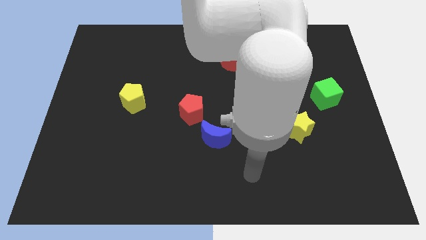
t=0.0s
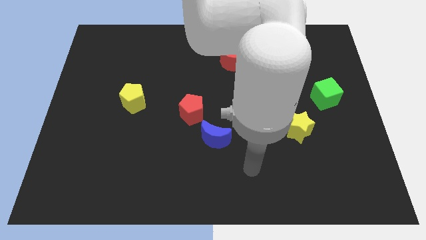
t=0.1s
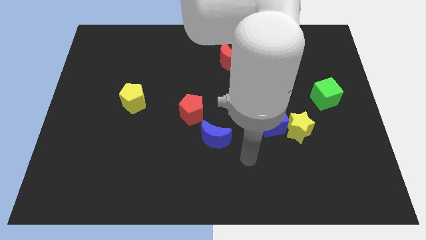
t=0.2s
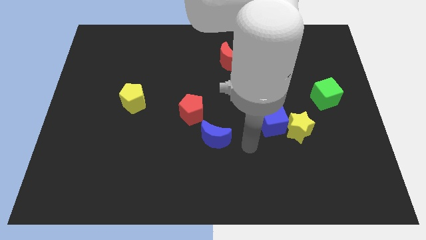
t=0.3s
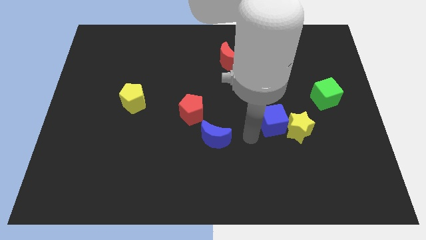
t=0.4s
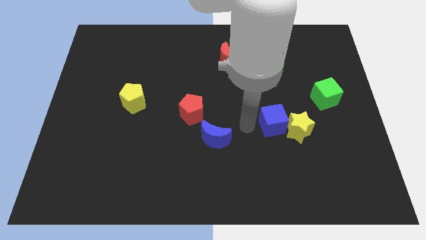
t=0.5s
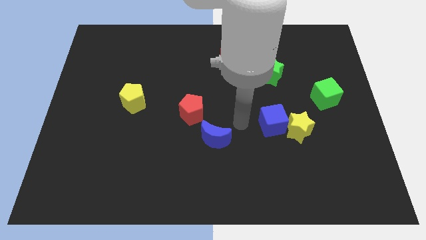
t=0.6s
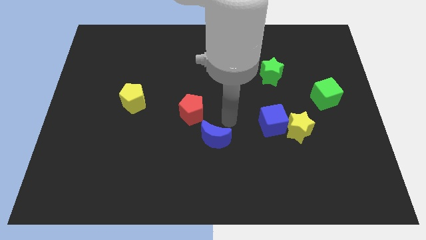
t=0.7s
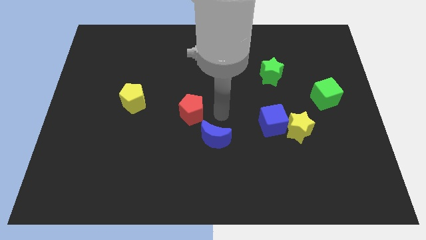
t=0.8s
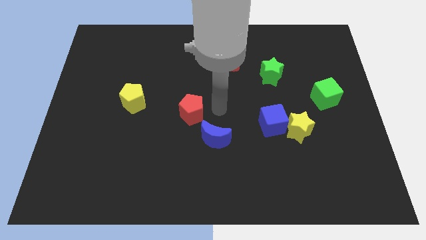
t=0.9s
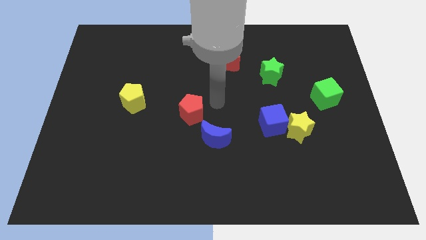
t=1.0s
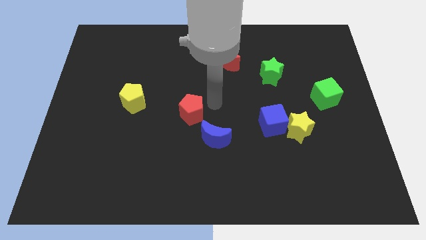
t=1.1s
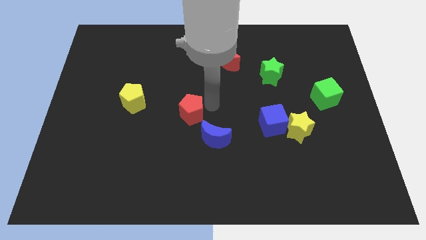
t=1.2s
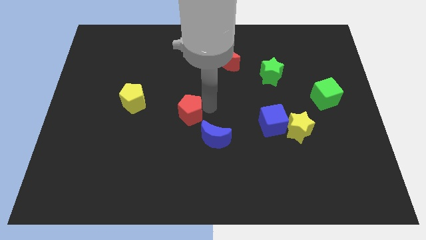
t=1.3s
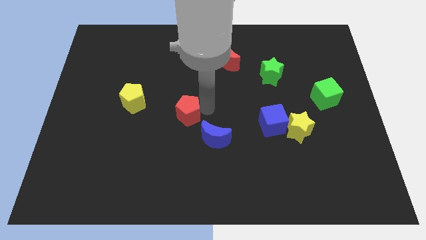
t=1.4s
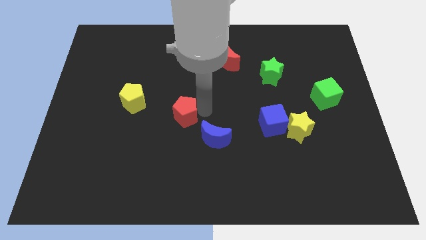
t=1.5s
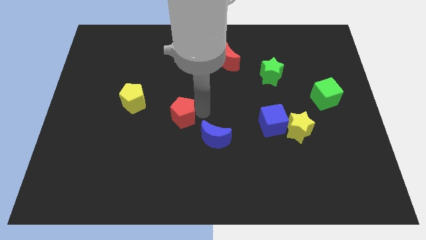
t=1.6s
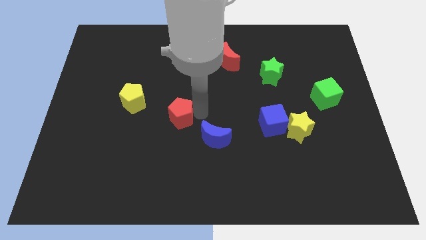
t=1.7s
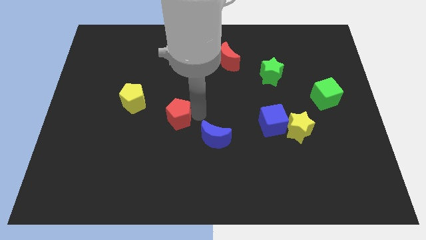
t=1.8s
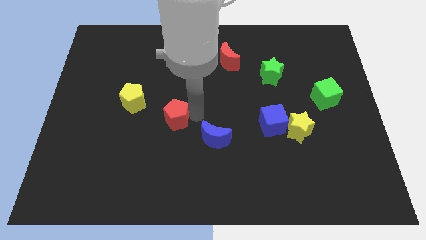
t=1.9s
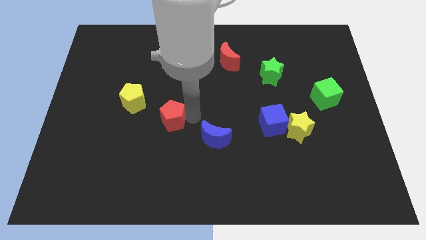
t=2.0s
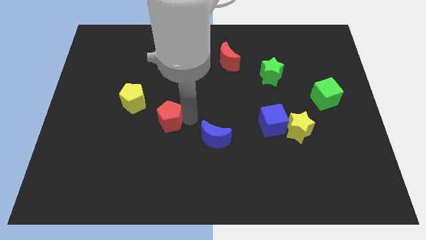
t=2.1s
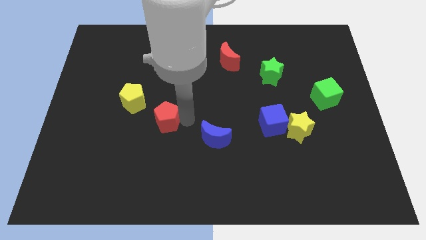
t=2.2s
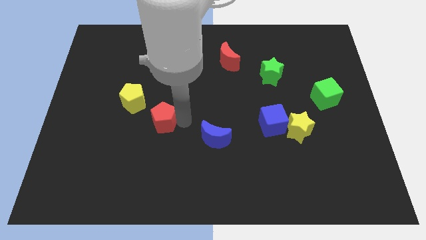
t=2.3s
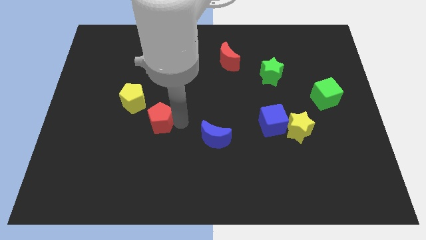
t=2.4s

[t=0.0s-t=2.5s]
move the red pentagon to the left a little bit

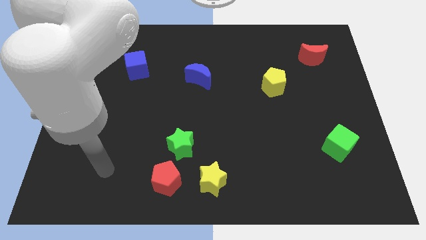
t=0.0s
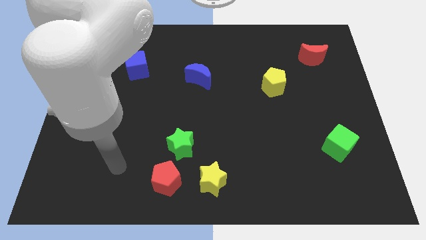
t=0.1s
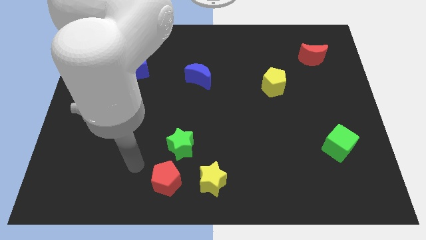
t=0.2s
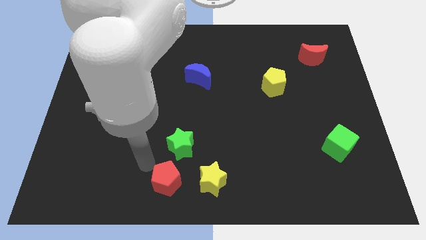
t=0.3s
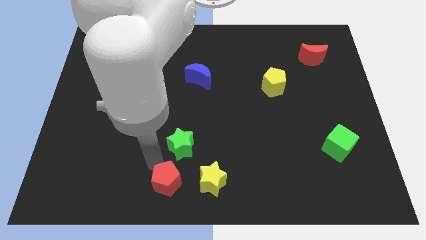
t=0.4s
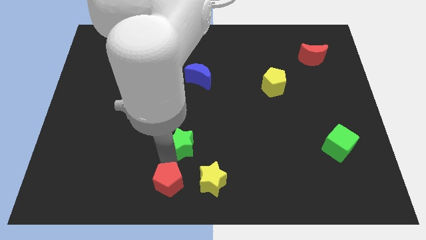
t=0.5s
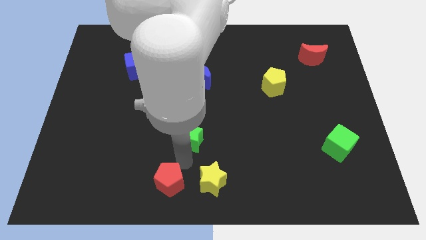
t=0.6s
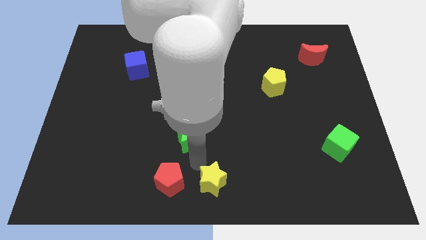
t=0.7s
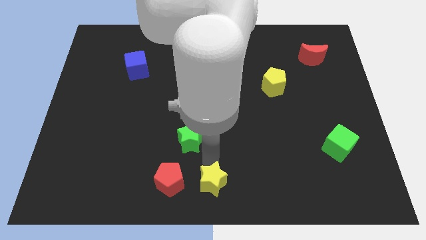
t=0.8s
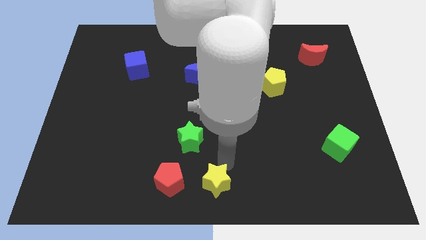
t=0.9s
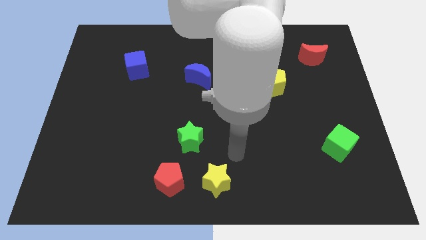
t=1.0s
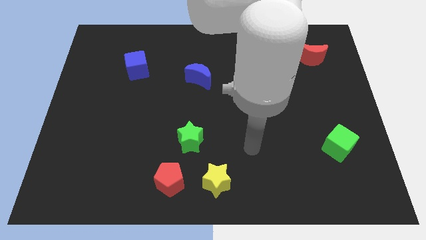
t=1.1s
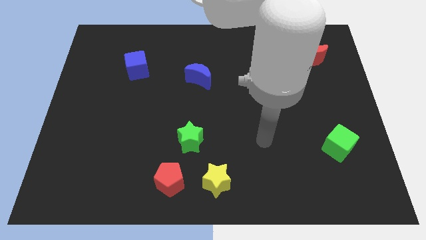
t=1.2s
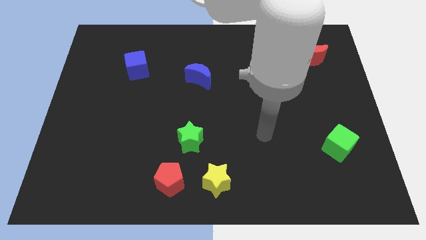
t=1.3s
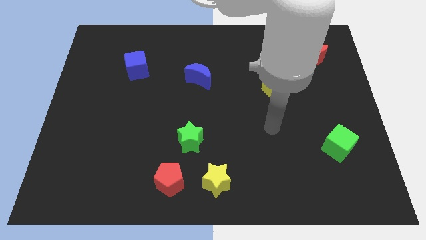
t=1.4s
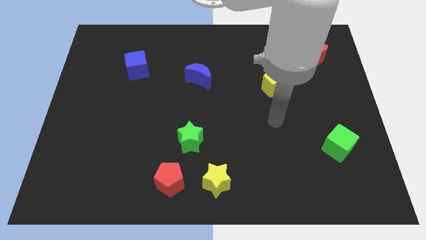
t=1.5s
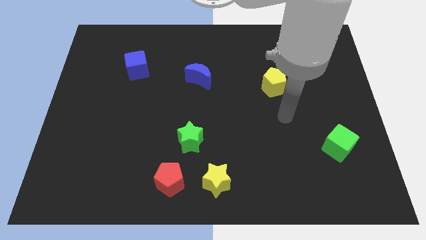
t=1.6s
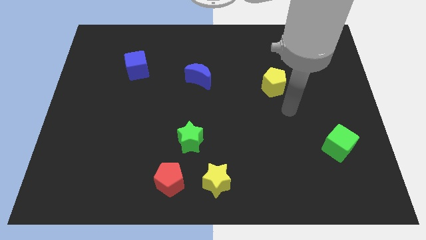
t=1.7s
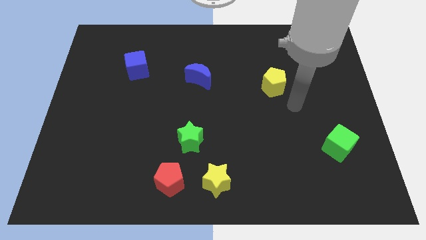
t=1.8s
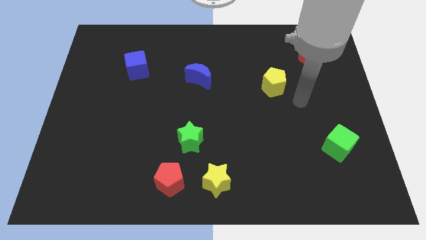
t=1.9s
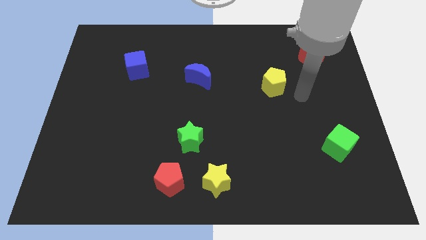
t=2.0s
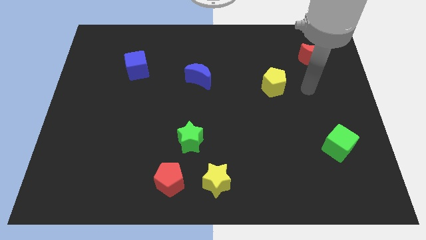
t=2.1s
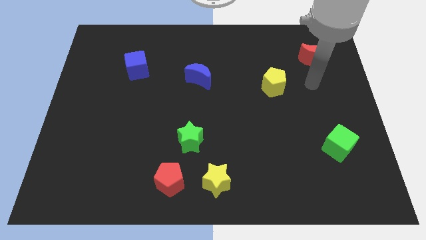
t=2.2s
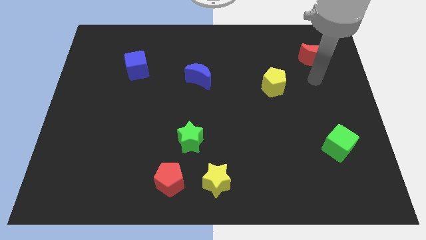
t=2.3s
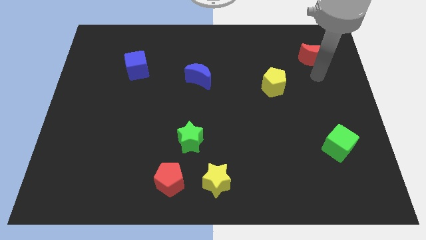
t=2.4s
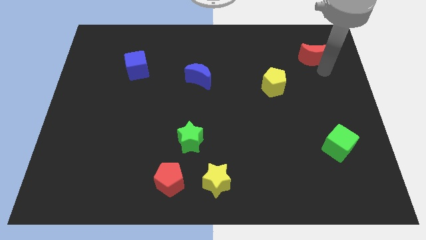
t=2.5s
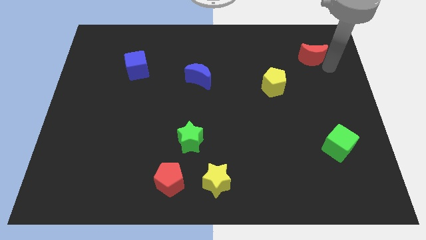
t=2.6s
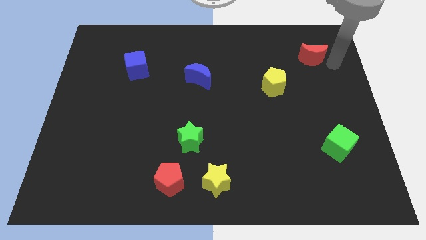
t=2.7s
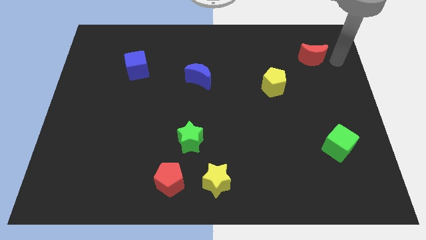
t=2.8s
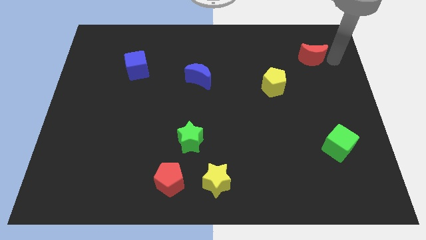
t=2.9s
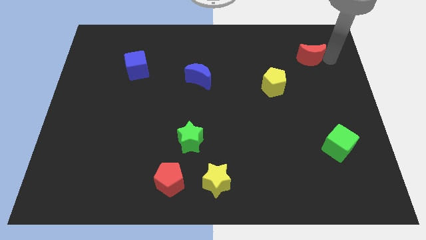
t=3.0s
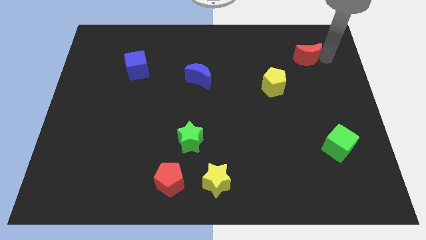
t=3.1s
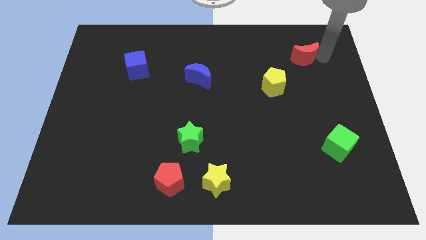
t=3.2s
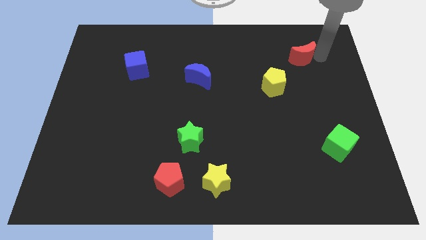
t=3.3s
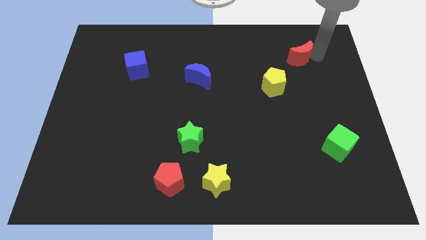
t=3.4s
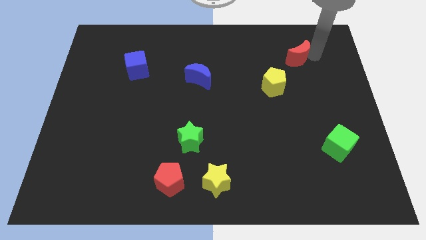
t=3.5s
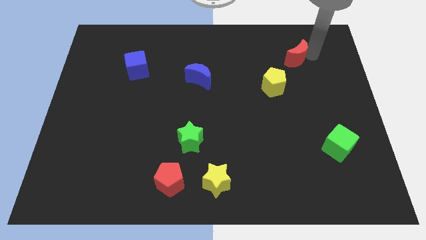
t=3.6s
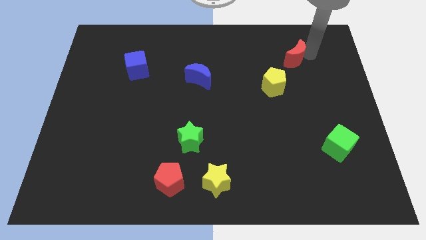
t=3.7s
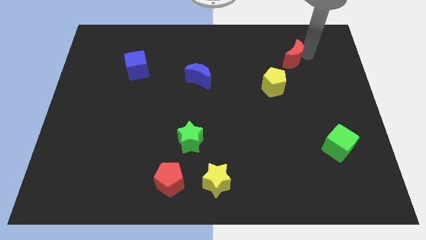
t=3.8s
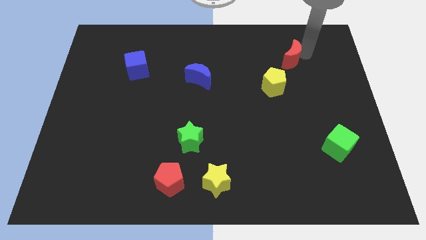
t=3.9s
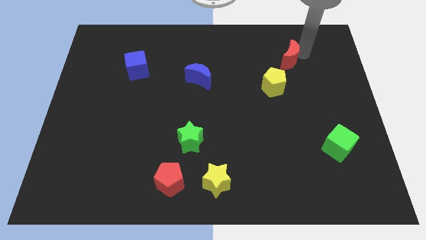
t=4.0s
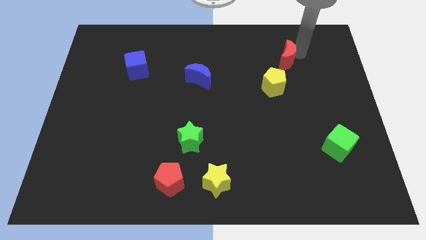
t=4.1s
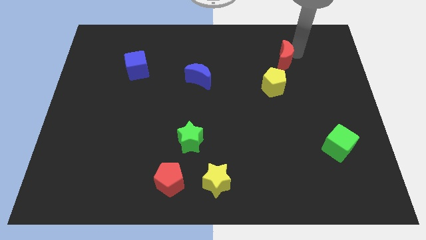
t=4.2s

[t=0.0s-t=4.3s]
push the red moon to the left slightly

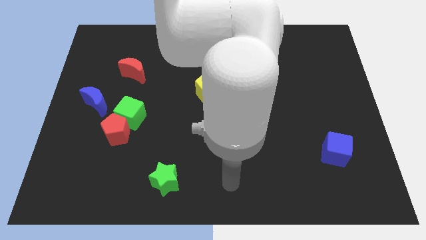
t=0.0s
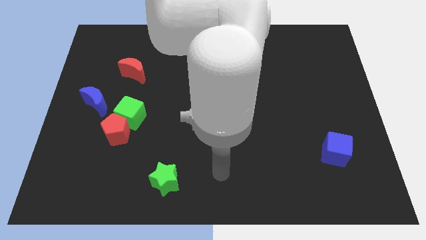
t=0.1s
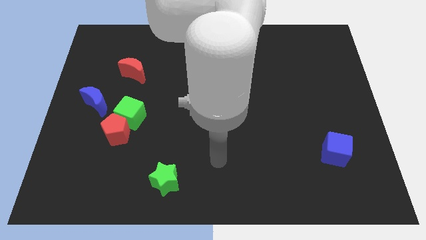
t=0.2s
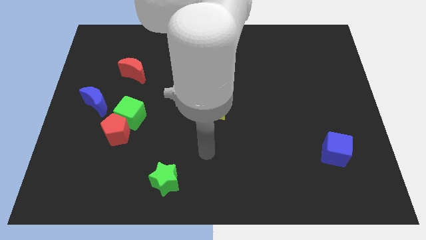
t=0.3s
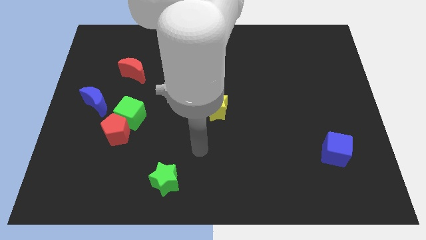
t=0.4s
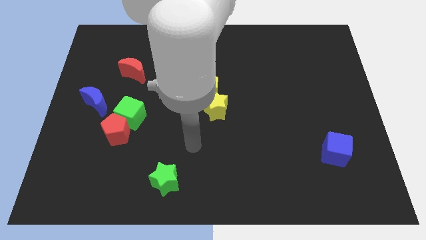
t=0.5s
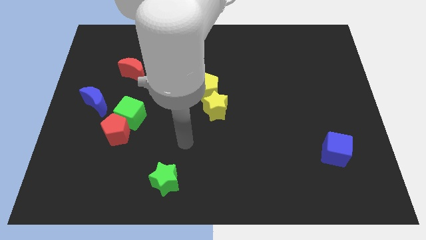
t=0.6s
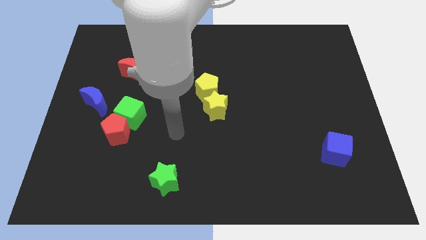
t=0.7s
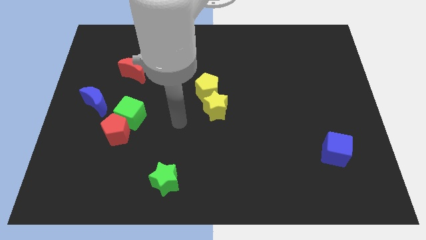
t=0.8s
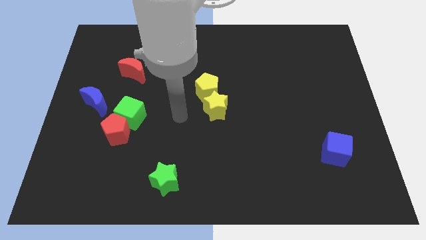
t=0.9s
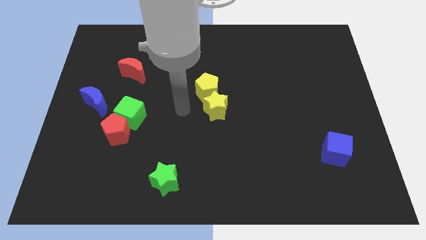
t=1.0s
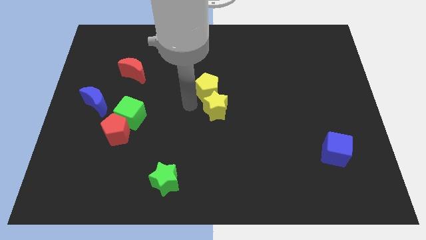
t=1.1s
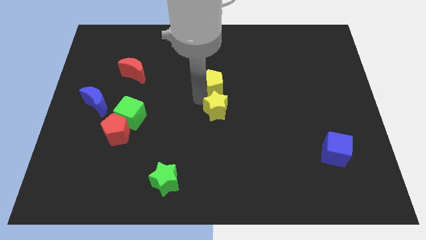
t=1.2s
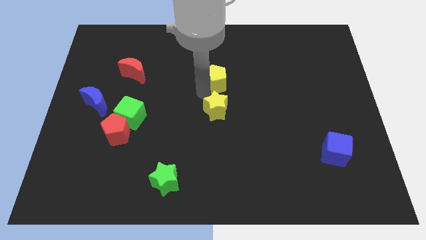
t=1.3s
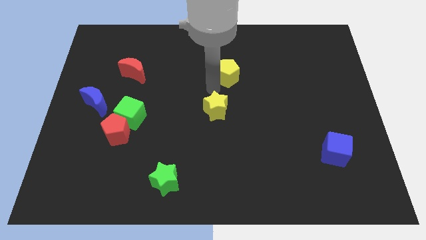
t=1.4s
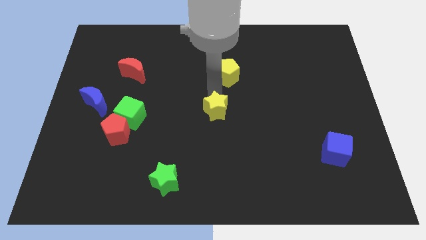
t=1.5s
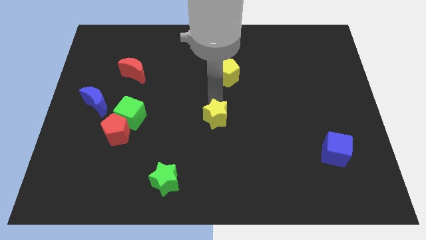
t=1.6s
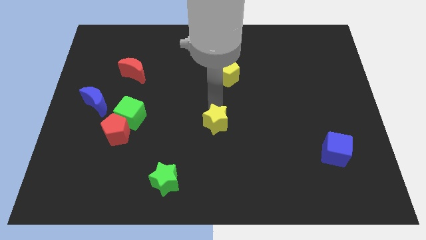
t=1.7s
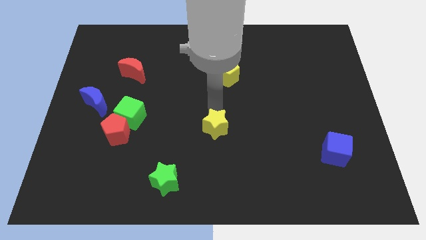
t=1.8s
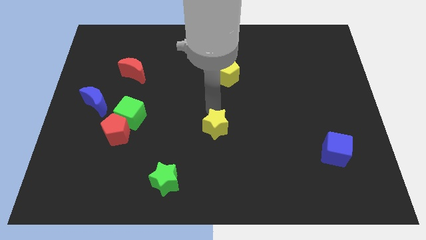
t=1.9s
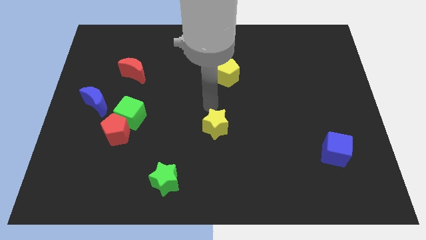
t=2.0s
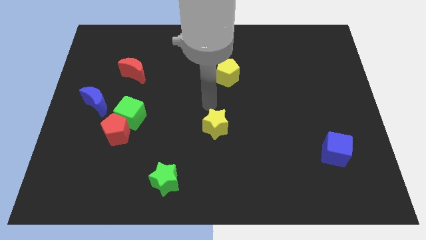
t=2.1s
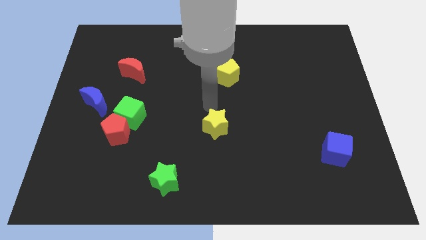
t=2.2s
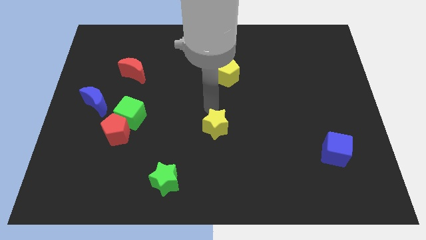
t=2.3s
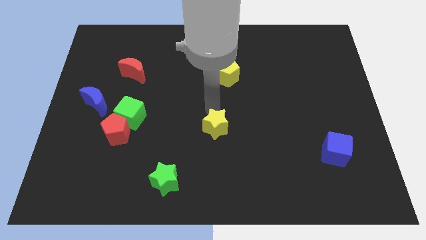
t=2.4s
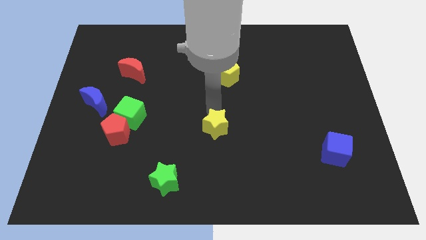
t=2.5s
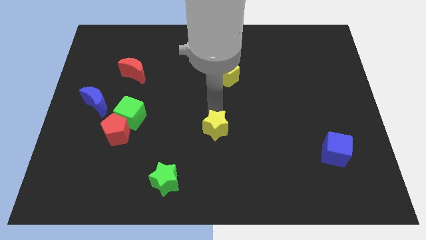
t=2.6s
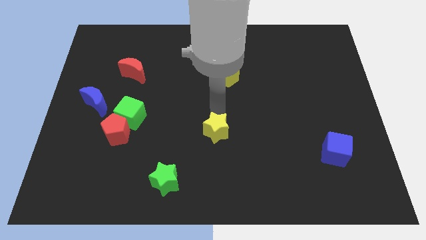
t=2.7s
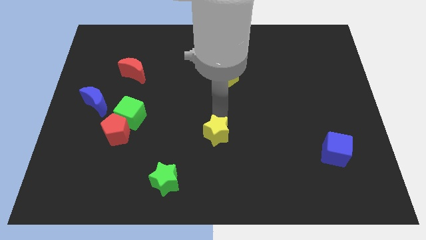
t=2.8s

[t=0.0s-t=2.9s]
slightly slide the yellow star downwards
